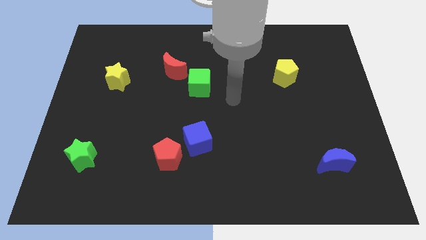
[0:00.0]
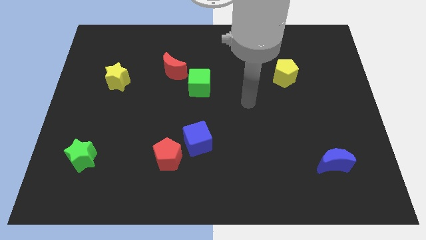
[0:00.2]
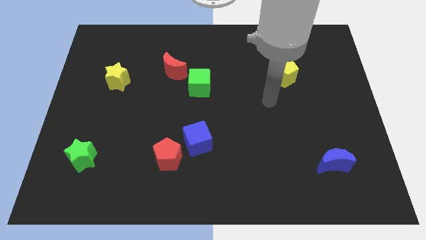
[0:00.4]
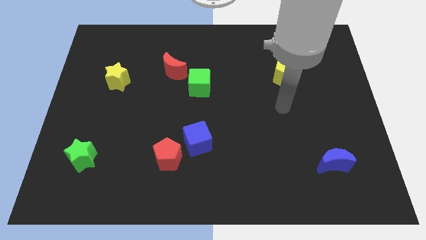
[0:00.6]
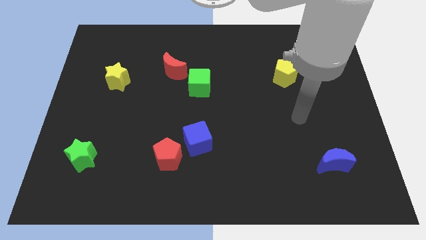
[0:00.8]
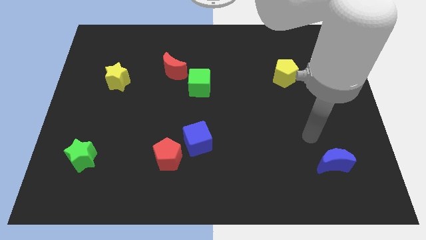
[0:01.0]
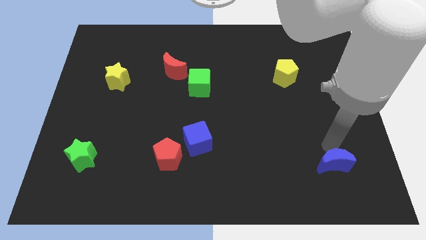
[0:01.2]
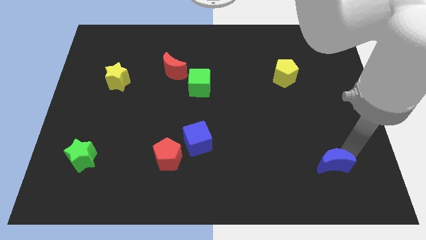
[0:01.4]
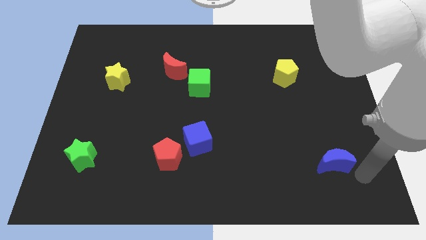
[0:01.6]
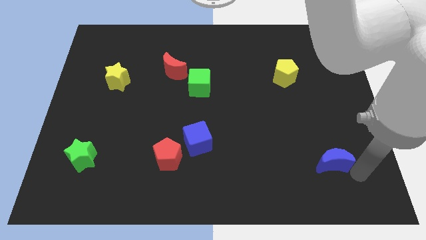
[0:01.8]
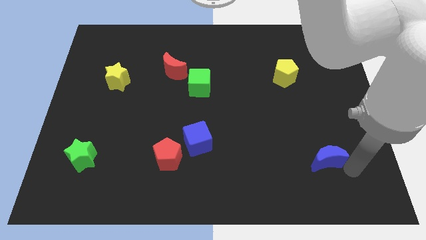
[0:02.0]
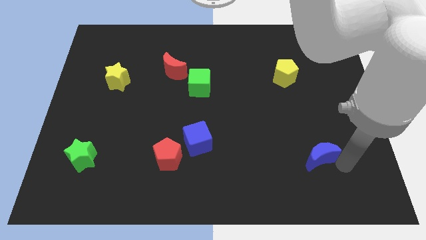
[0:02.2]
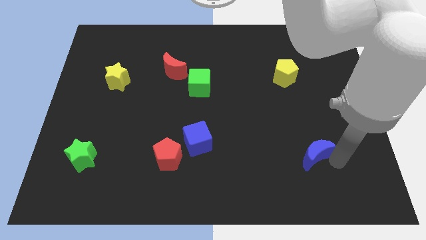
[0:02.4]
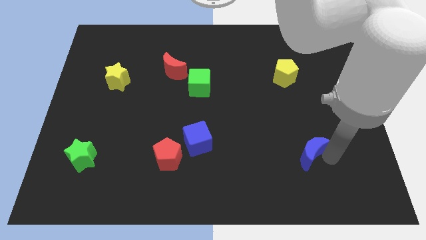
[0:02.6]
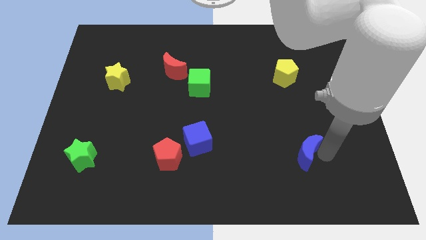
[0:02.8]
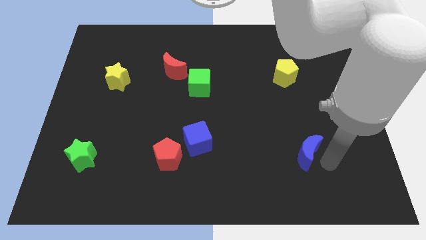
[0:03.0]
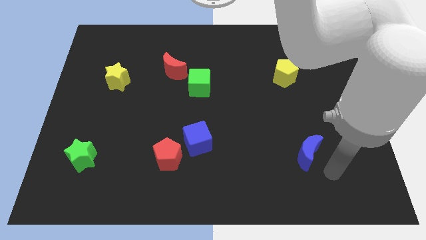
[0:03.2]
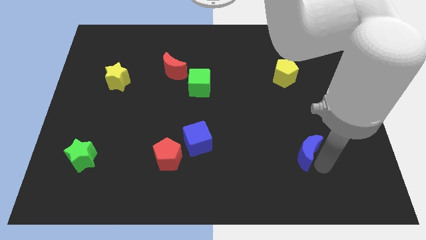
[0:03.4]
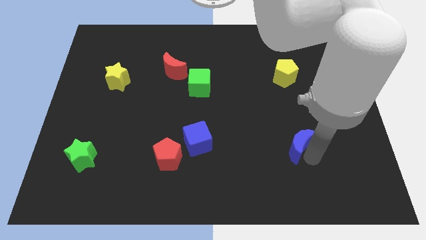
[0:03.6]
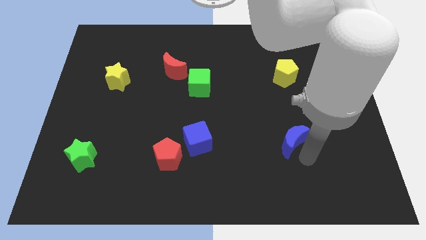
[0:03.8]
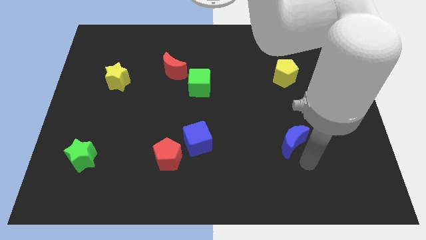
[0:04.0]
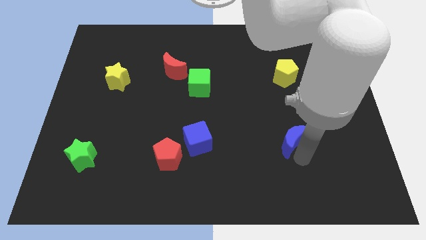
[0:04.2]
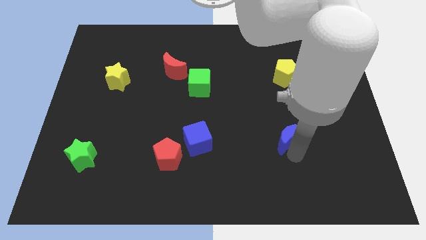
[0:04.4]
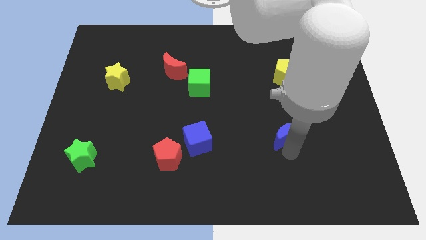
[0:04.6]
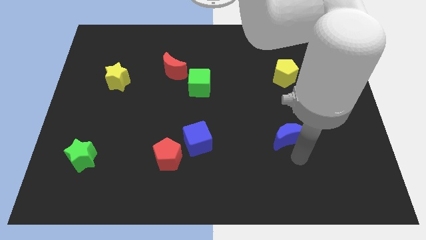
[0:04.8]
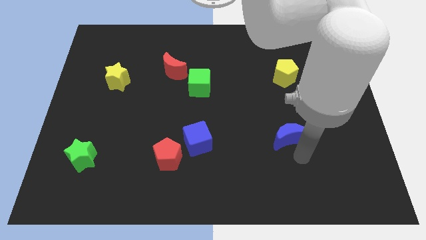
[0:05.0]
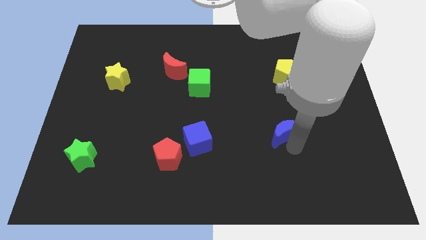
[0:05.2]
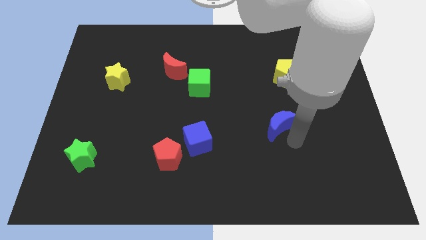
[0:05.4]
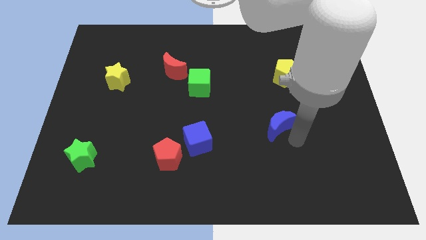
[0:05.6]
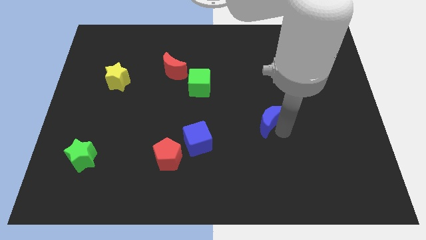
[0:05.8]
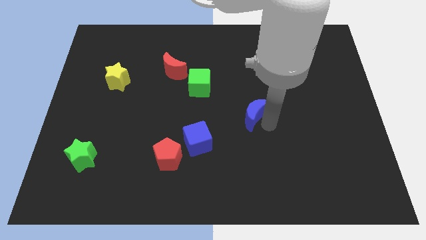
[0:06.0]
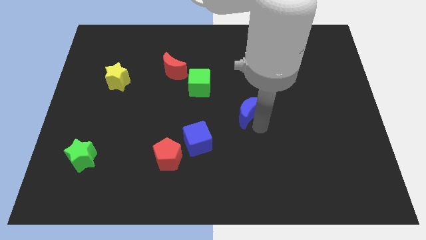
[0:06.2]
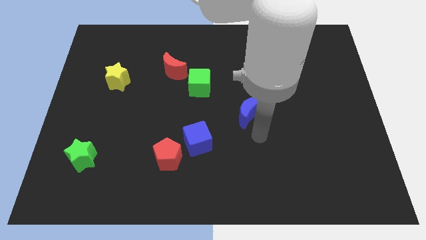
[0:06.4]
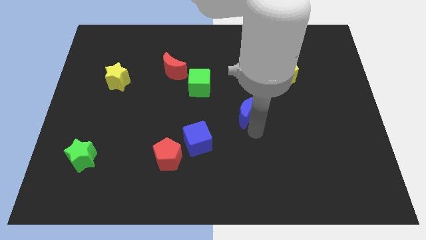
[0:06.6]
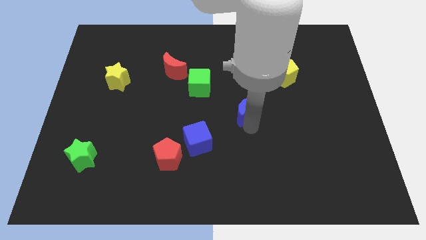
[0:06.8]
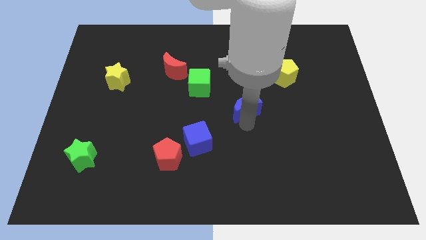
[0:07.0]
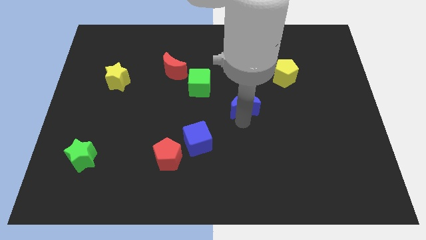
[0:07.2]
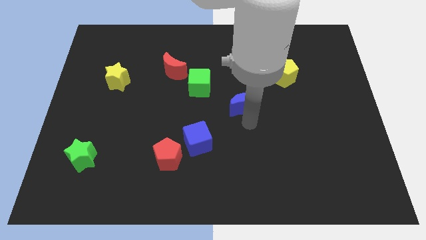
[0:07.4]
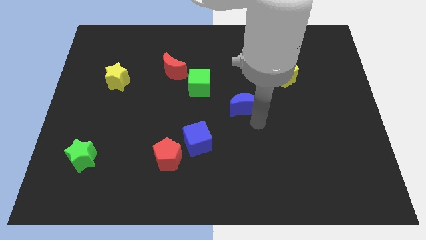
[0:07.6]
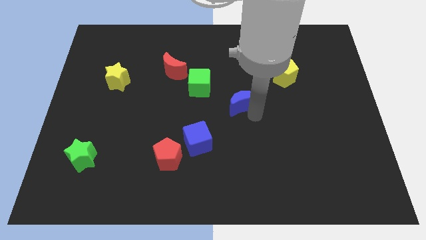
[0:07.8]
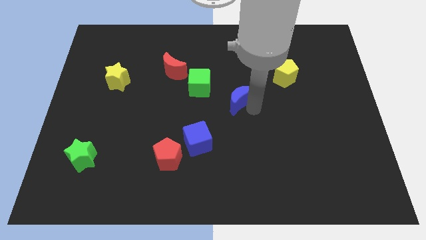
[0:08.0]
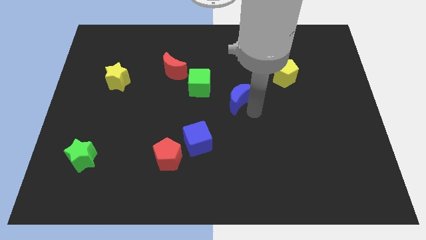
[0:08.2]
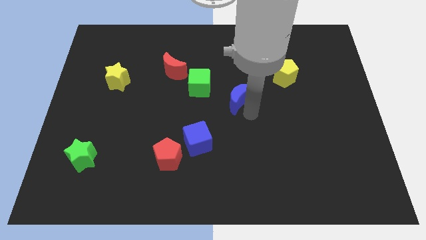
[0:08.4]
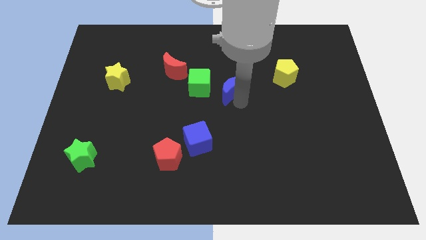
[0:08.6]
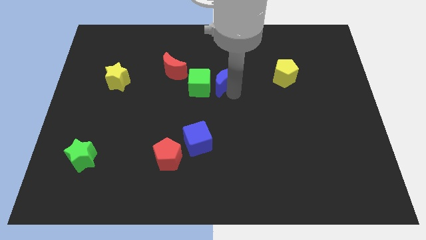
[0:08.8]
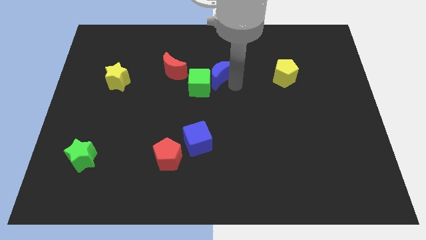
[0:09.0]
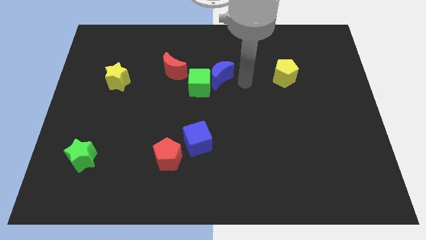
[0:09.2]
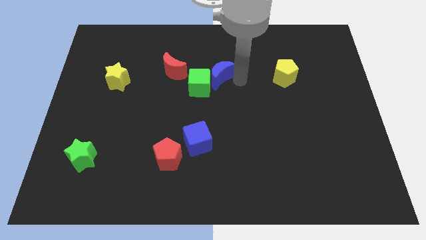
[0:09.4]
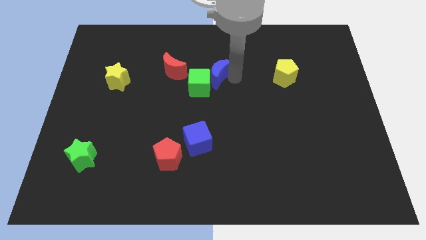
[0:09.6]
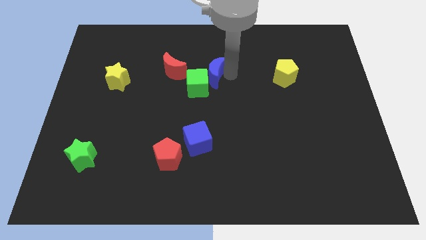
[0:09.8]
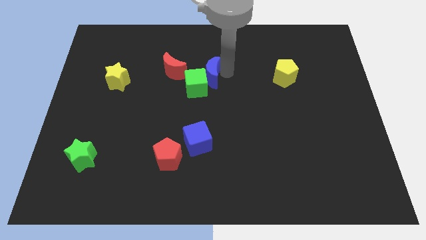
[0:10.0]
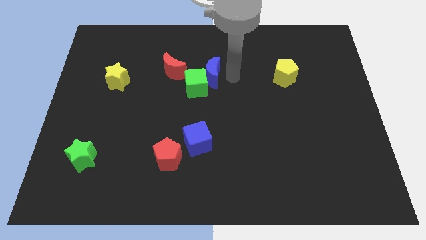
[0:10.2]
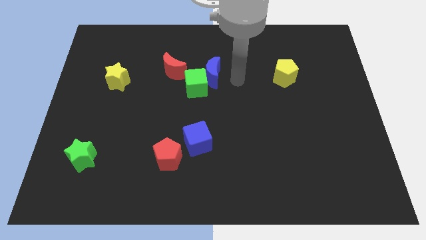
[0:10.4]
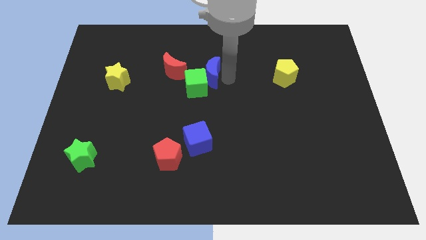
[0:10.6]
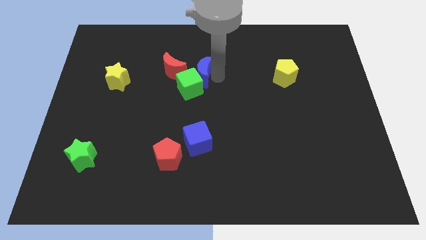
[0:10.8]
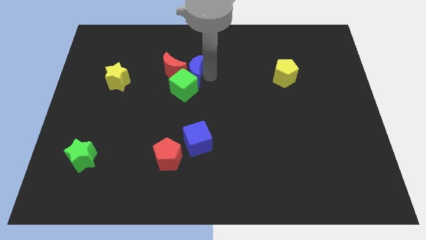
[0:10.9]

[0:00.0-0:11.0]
slide the blue moon to the red moon

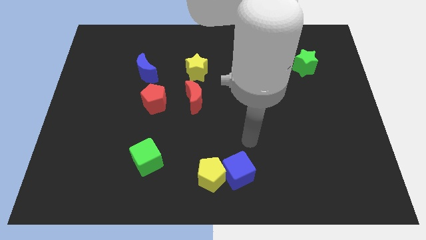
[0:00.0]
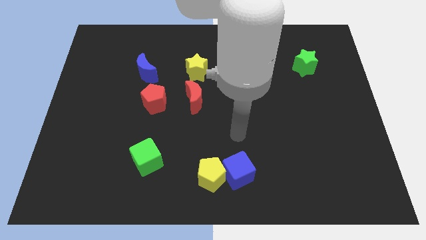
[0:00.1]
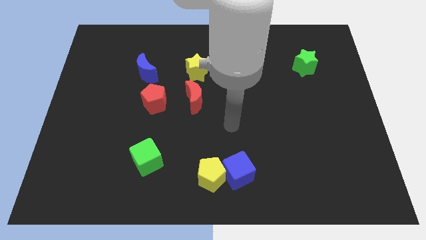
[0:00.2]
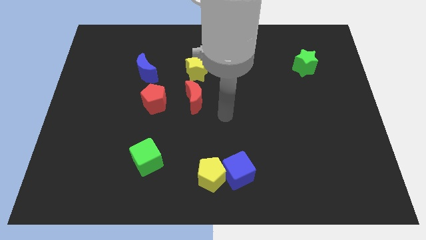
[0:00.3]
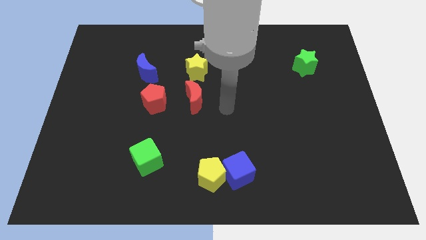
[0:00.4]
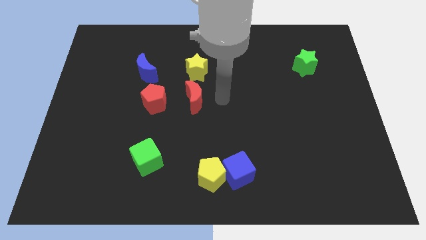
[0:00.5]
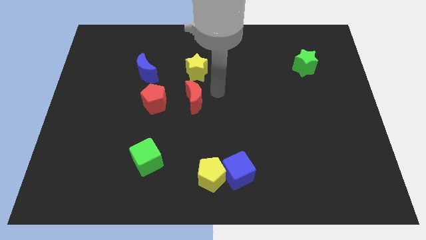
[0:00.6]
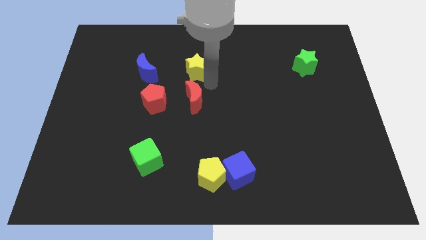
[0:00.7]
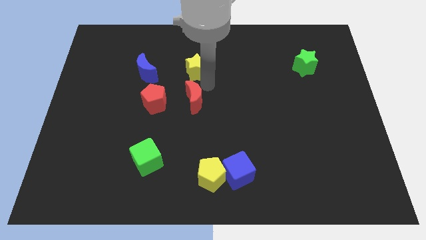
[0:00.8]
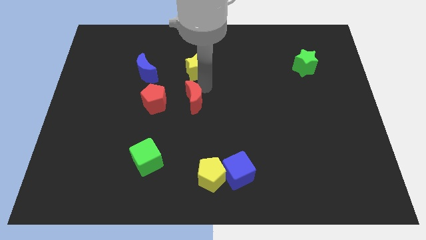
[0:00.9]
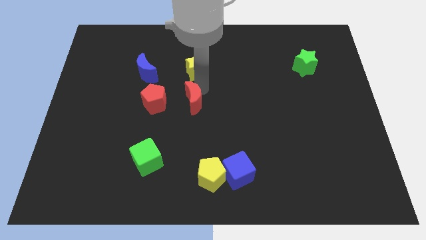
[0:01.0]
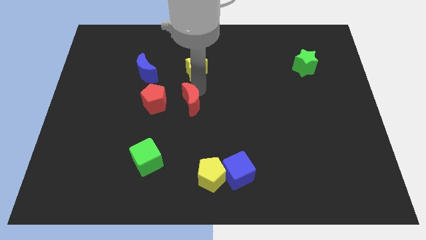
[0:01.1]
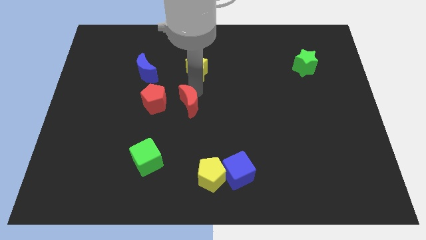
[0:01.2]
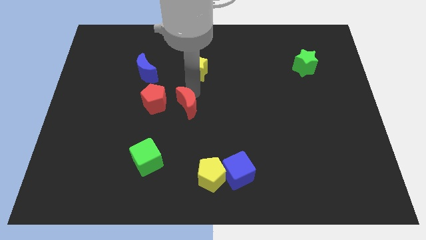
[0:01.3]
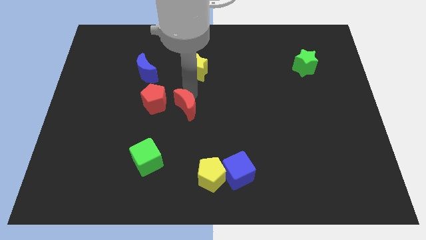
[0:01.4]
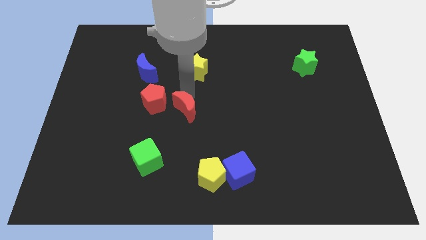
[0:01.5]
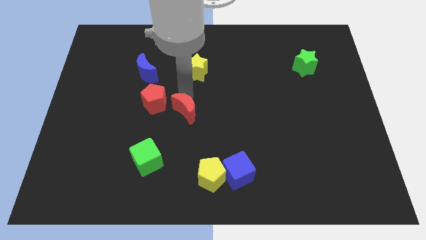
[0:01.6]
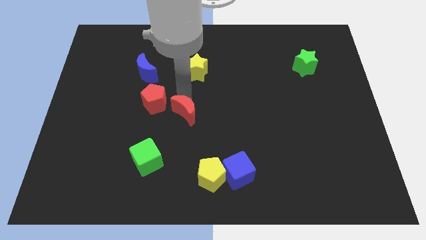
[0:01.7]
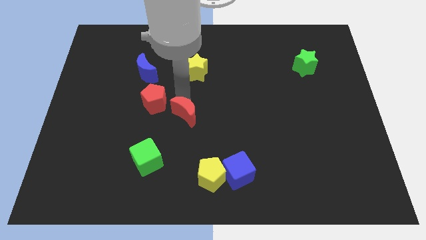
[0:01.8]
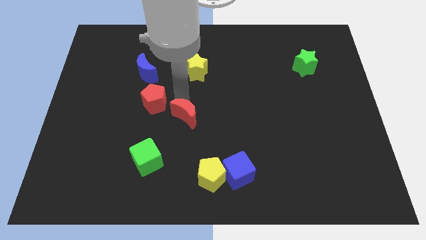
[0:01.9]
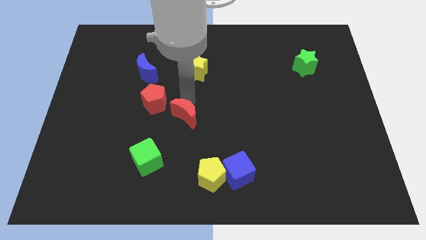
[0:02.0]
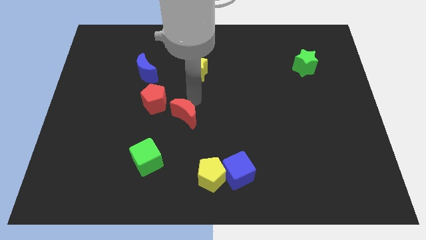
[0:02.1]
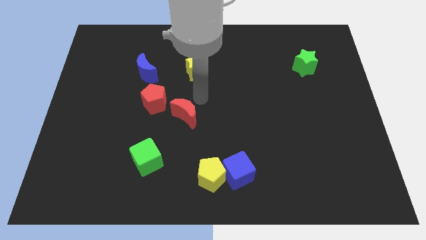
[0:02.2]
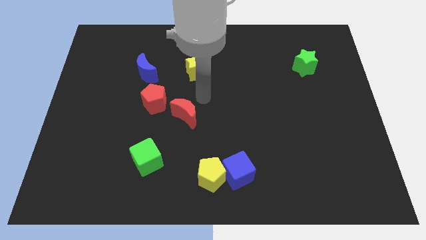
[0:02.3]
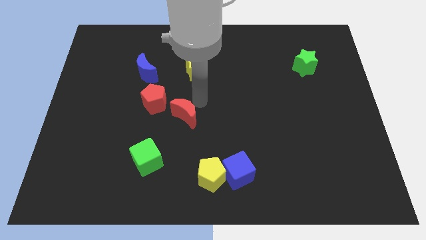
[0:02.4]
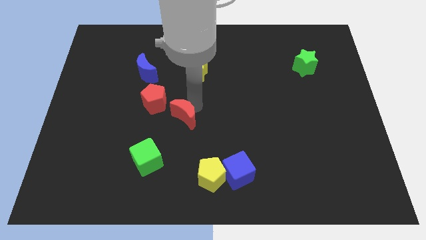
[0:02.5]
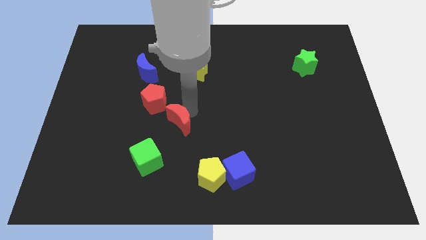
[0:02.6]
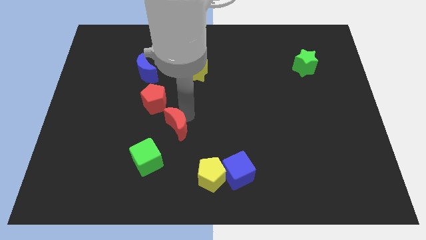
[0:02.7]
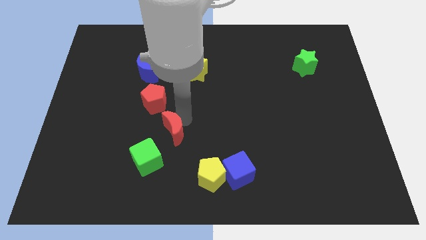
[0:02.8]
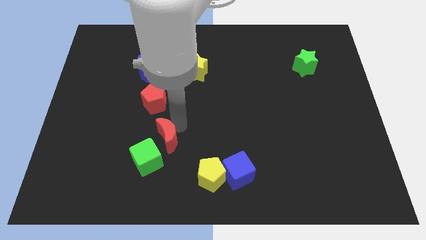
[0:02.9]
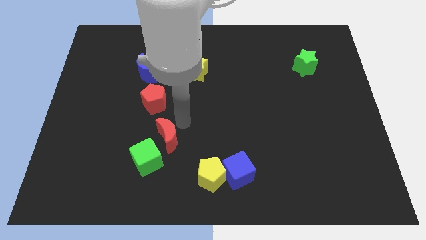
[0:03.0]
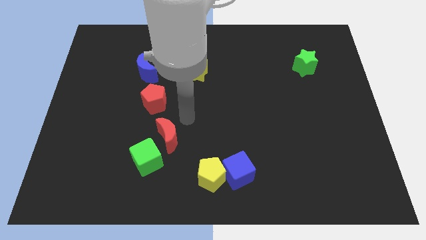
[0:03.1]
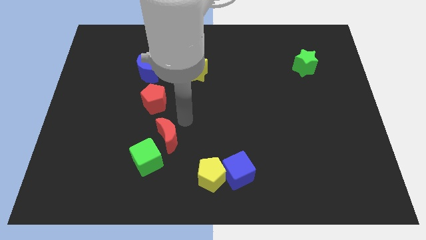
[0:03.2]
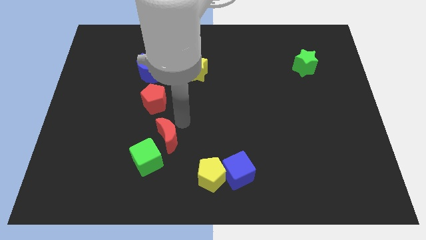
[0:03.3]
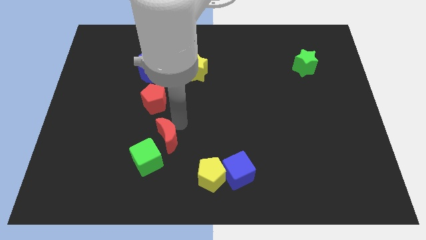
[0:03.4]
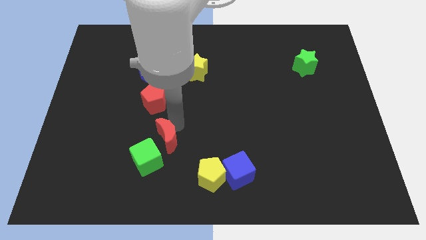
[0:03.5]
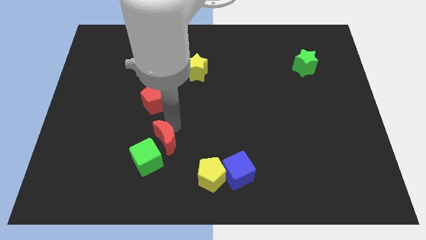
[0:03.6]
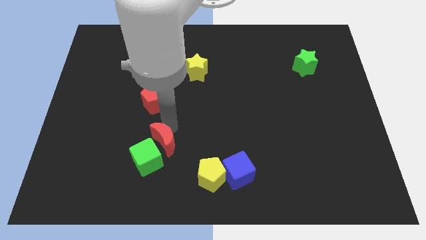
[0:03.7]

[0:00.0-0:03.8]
move the red moon to the green cube
